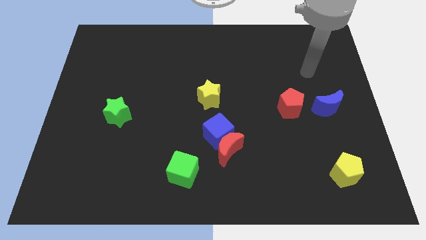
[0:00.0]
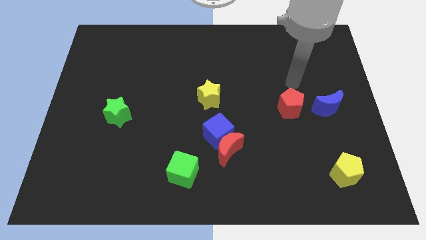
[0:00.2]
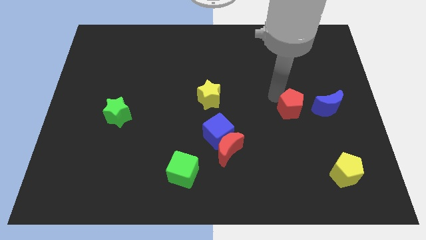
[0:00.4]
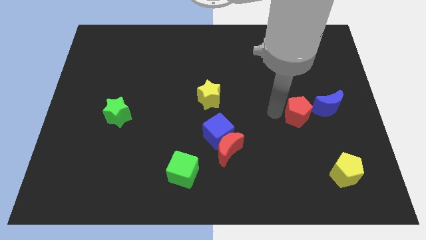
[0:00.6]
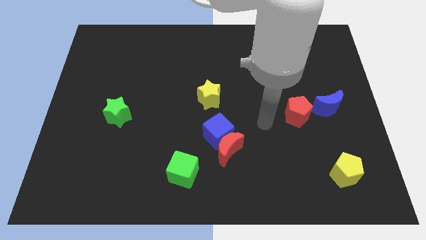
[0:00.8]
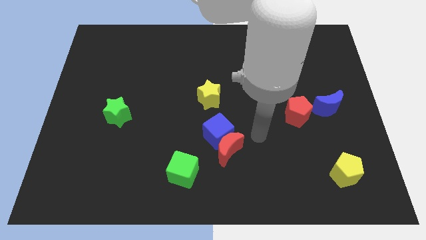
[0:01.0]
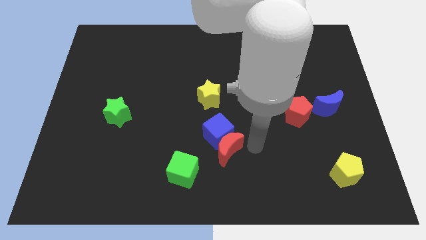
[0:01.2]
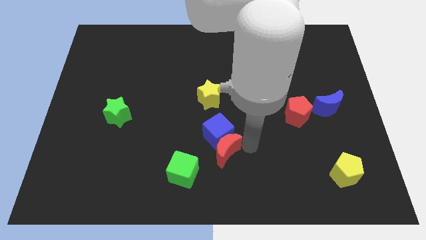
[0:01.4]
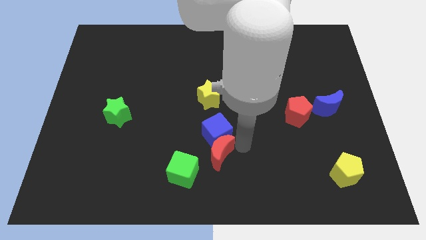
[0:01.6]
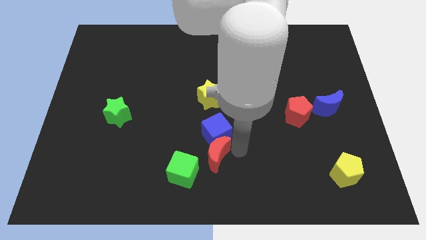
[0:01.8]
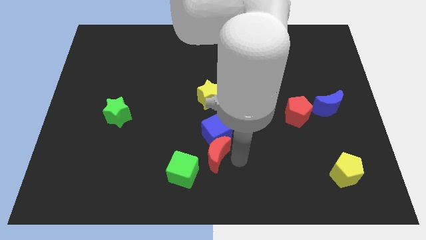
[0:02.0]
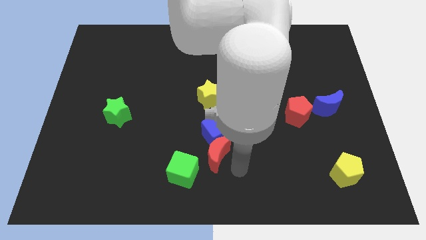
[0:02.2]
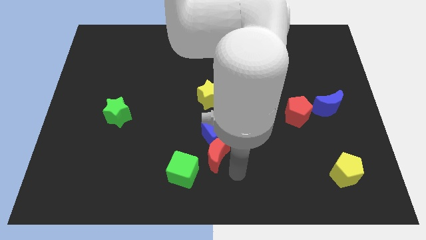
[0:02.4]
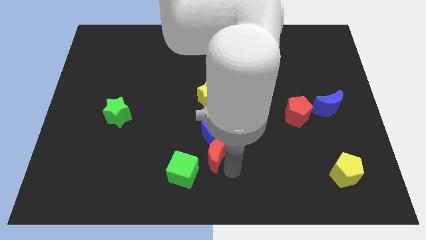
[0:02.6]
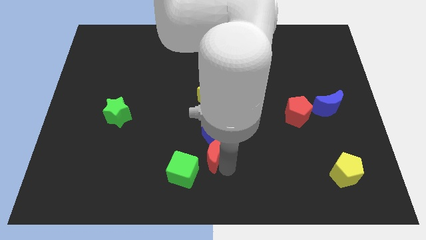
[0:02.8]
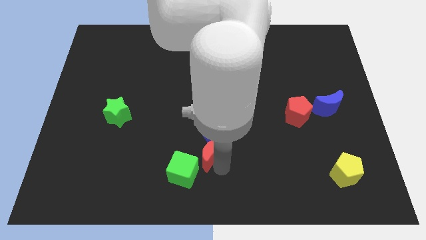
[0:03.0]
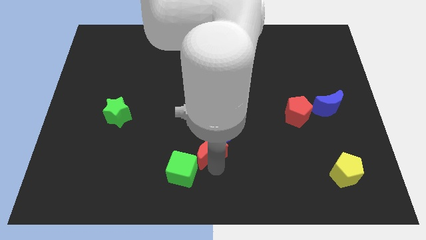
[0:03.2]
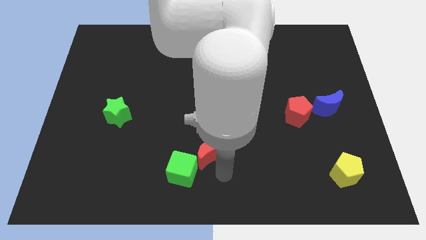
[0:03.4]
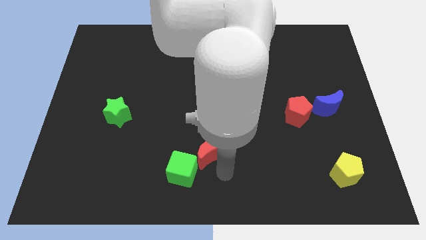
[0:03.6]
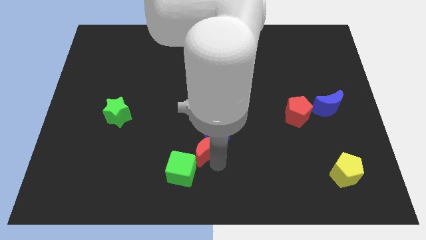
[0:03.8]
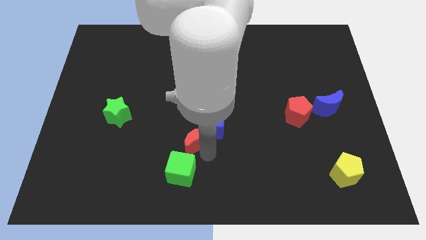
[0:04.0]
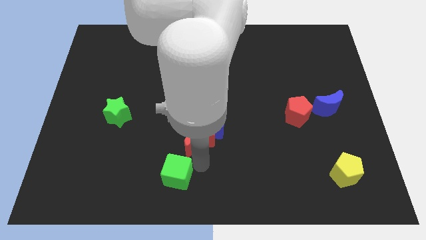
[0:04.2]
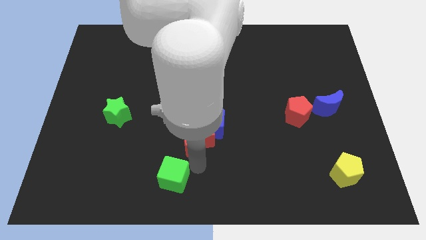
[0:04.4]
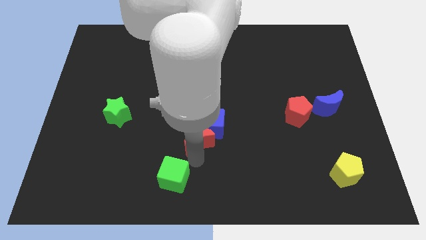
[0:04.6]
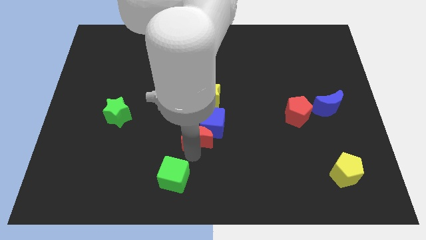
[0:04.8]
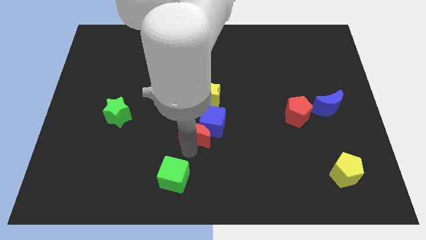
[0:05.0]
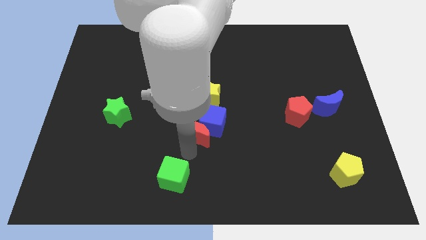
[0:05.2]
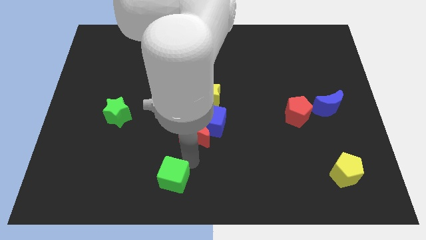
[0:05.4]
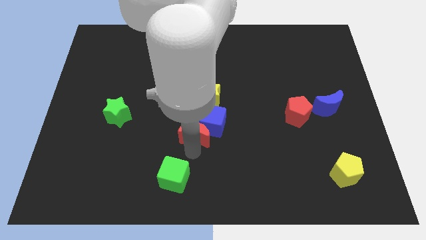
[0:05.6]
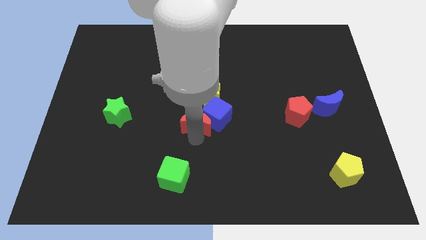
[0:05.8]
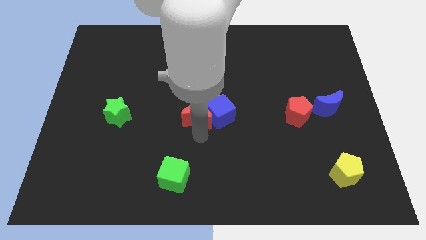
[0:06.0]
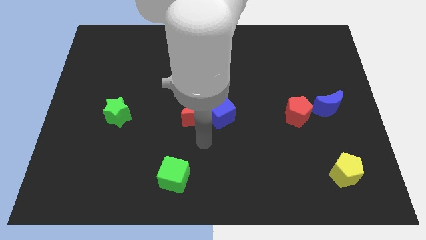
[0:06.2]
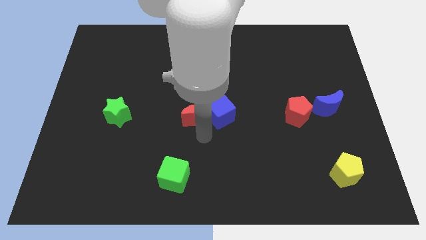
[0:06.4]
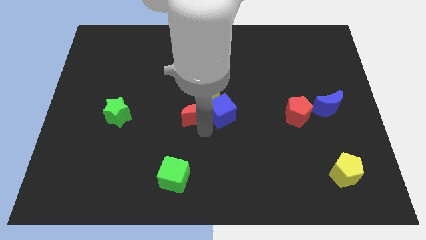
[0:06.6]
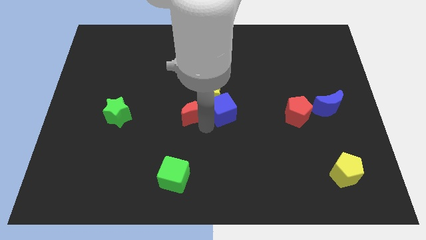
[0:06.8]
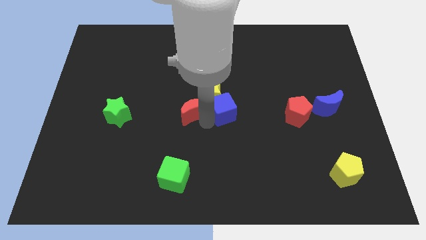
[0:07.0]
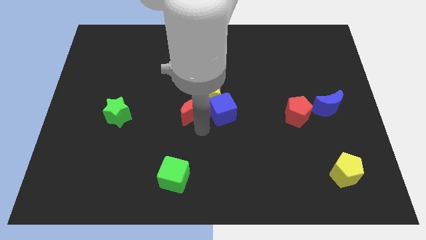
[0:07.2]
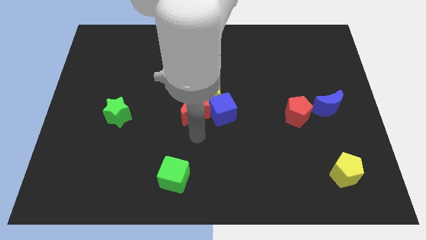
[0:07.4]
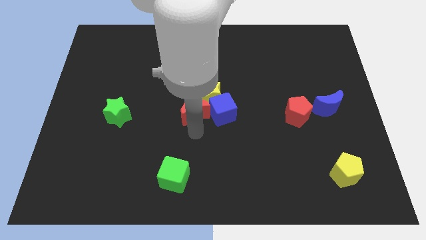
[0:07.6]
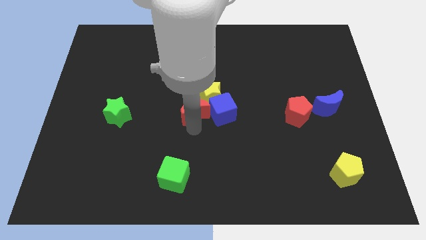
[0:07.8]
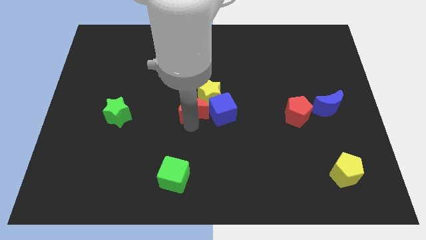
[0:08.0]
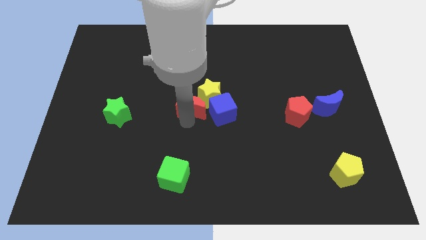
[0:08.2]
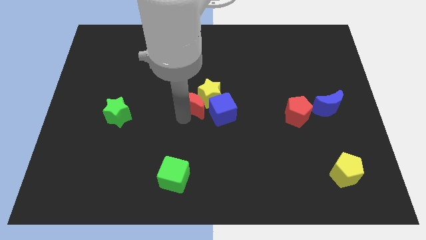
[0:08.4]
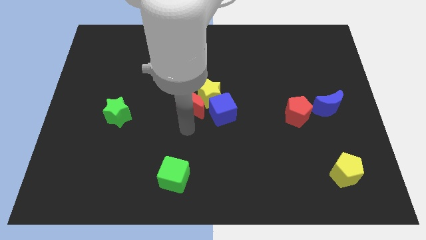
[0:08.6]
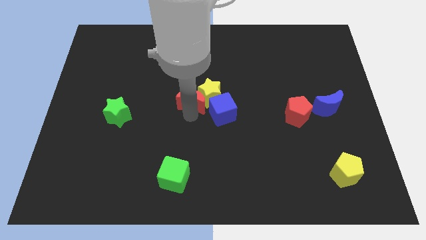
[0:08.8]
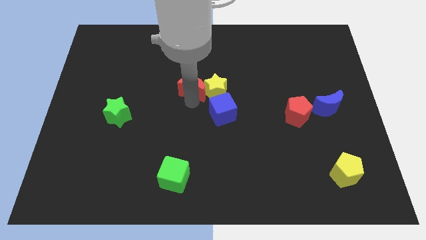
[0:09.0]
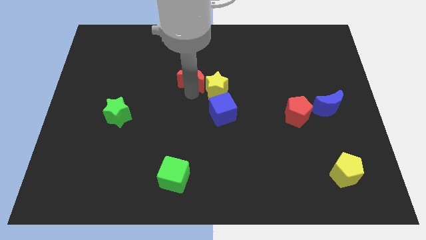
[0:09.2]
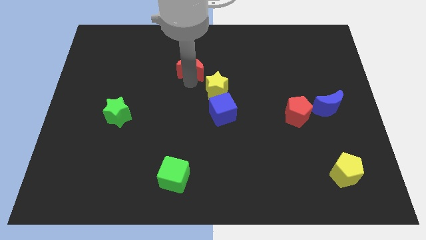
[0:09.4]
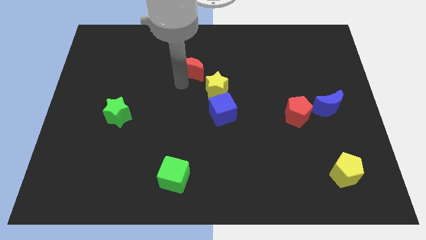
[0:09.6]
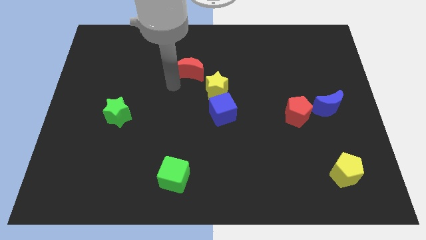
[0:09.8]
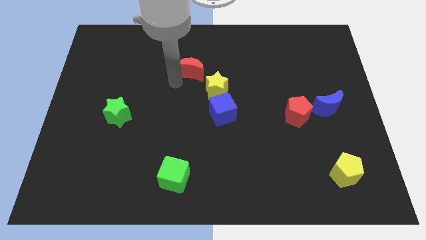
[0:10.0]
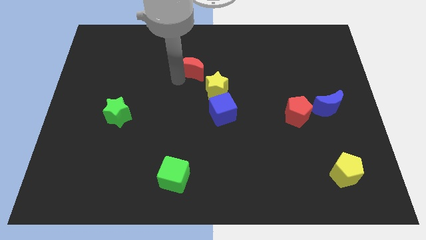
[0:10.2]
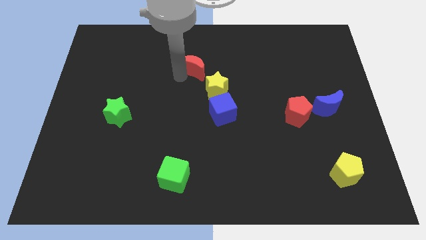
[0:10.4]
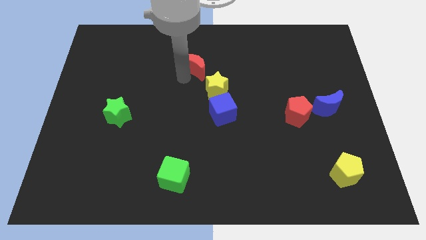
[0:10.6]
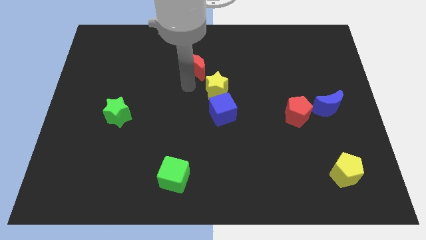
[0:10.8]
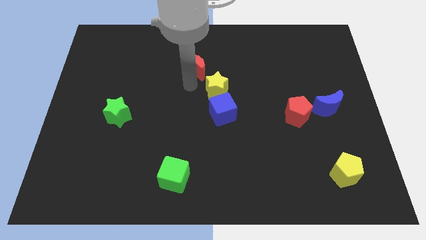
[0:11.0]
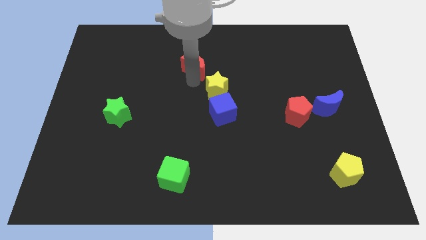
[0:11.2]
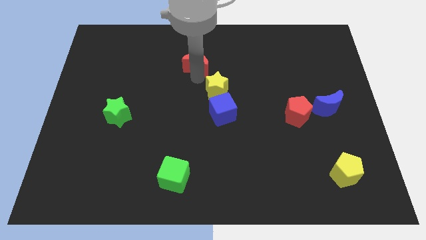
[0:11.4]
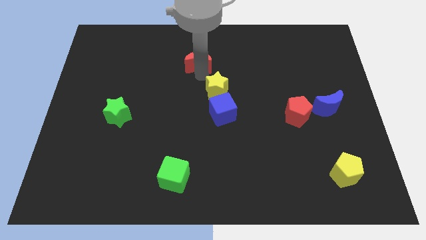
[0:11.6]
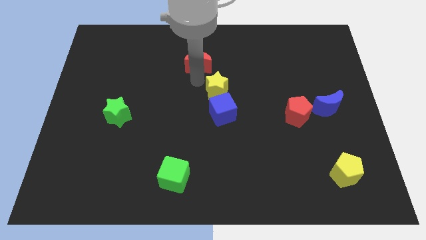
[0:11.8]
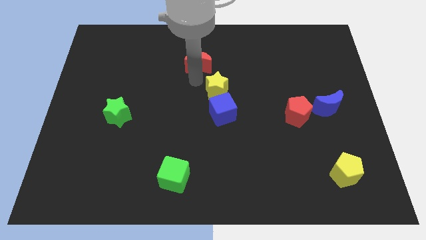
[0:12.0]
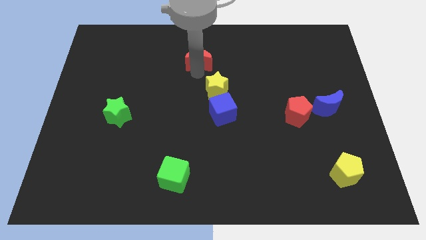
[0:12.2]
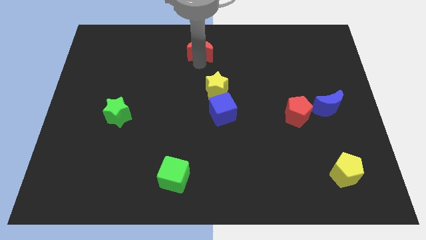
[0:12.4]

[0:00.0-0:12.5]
slide the red moon to the towards your base

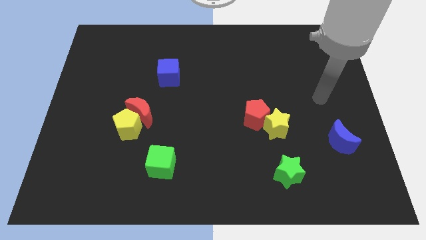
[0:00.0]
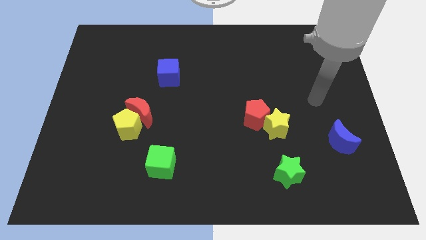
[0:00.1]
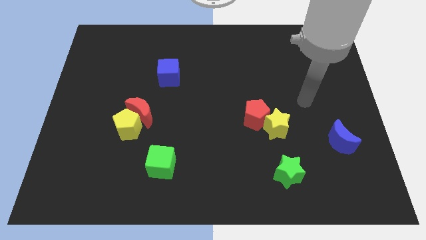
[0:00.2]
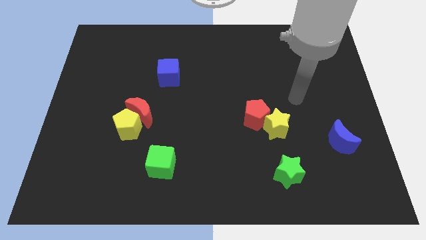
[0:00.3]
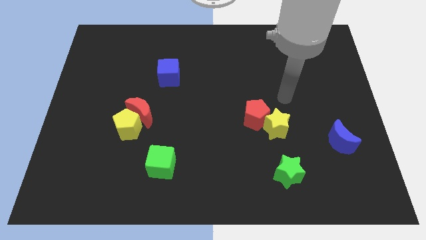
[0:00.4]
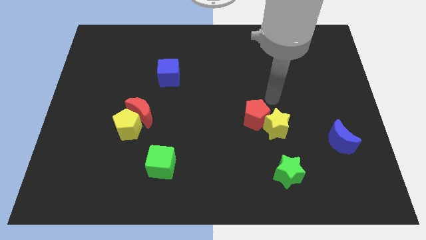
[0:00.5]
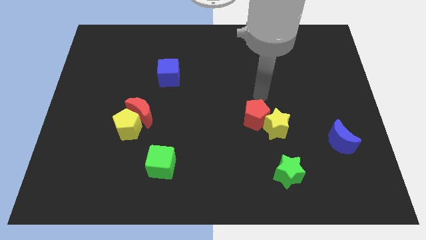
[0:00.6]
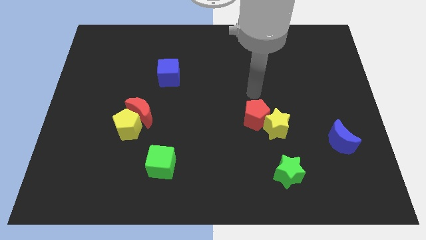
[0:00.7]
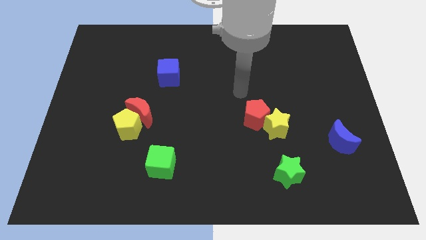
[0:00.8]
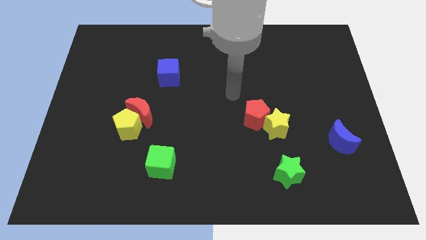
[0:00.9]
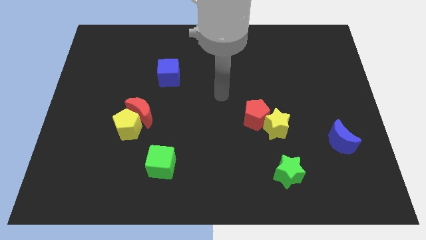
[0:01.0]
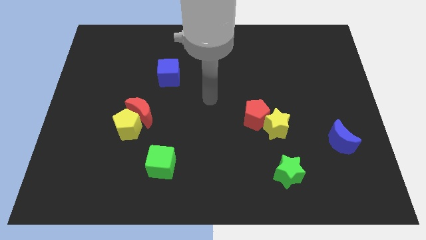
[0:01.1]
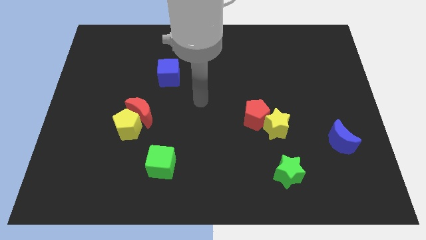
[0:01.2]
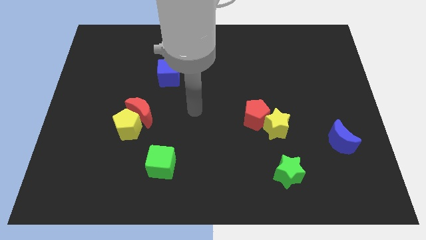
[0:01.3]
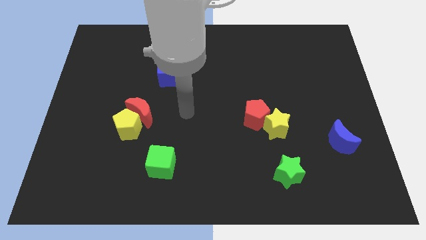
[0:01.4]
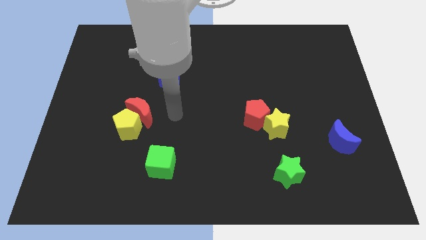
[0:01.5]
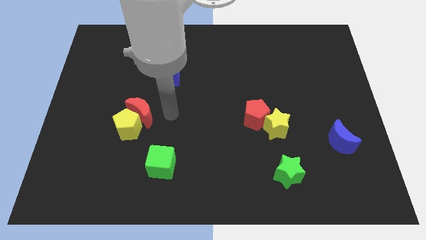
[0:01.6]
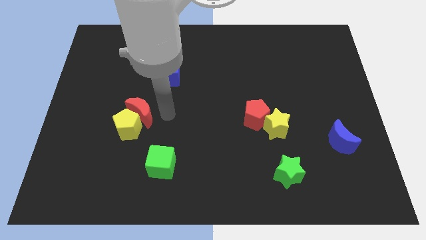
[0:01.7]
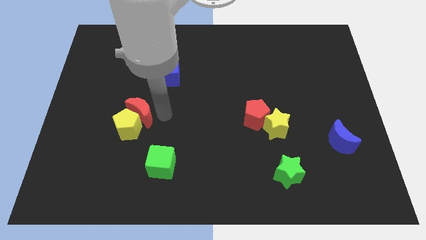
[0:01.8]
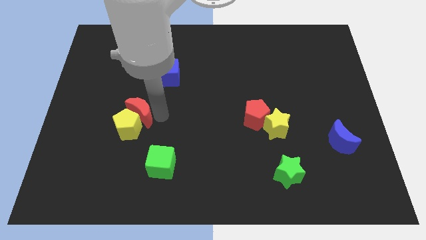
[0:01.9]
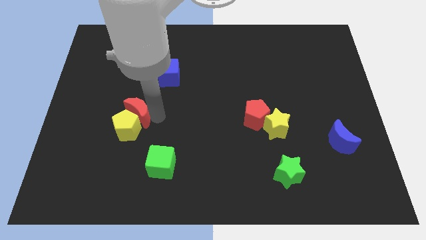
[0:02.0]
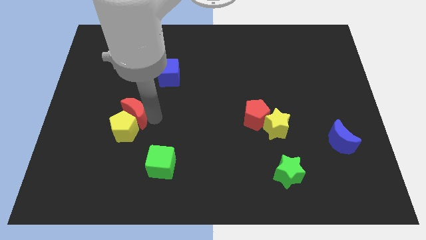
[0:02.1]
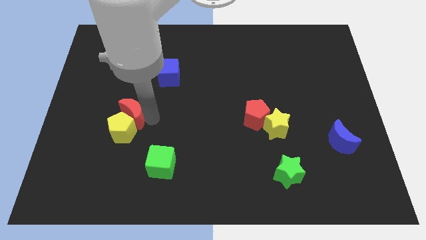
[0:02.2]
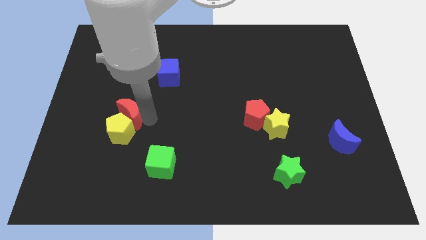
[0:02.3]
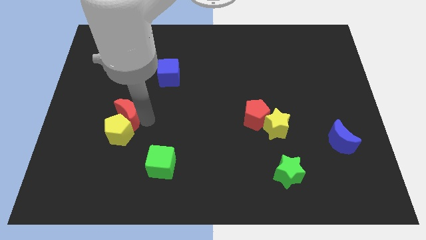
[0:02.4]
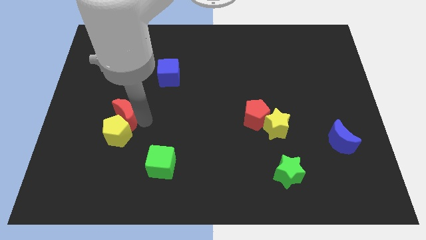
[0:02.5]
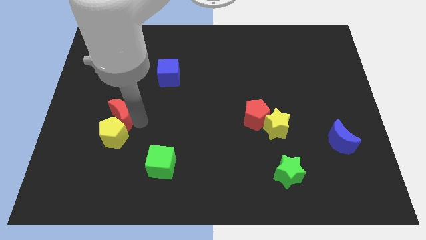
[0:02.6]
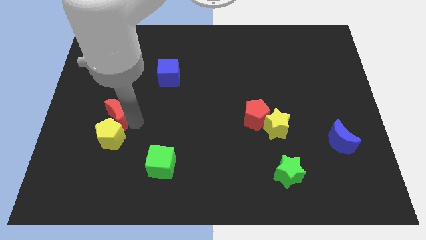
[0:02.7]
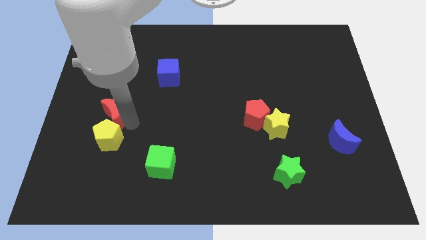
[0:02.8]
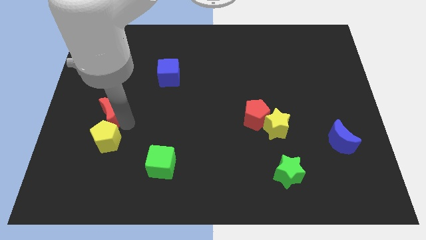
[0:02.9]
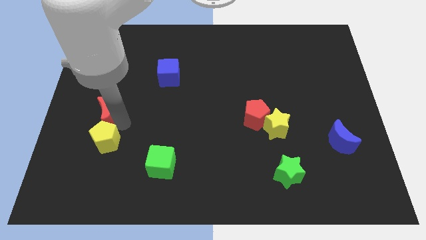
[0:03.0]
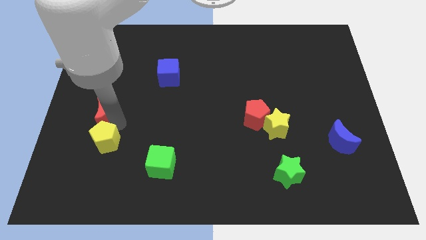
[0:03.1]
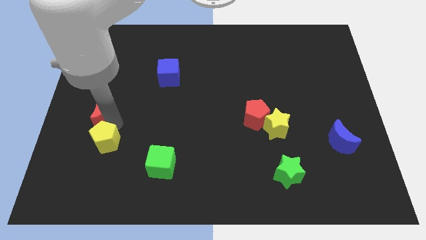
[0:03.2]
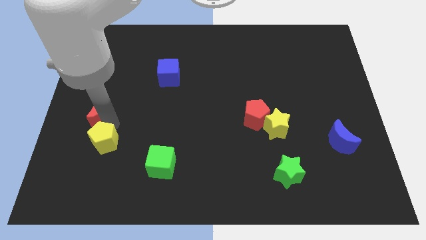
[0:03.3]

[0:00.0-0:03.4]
move the red moon to the left side of the board
